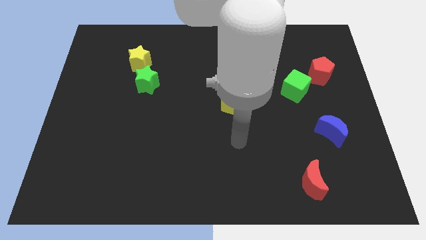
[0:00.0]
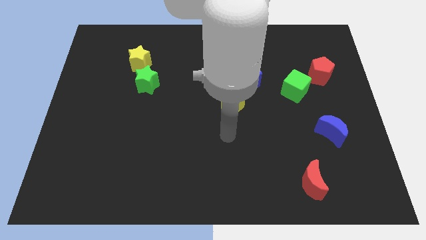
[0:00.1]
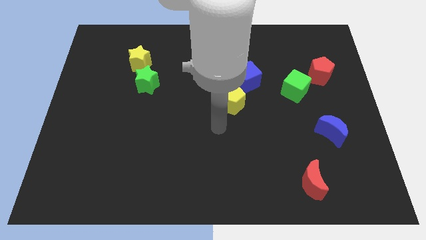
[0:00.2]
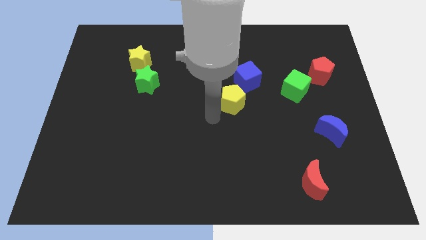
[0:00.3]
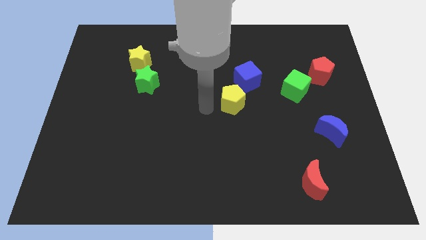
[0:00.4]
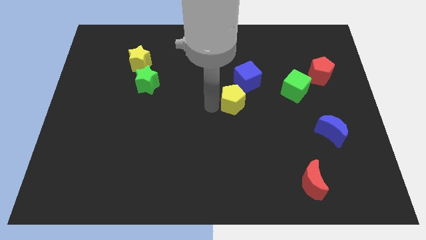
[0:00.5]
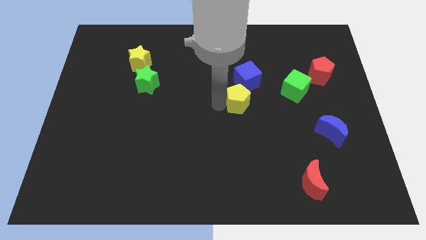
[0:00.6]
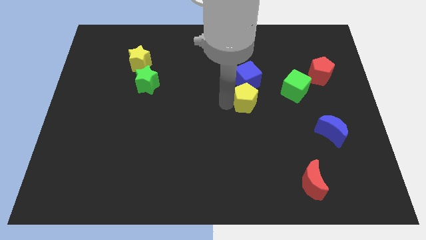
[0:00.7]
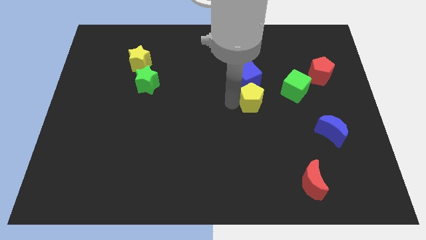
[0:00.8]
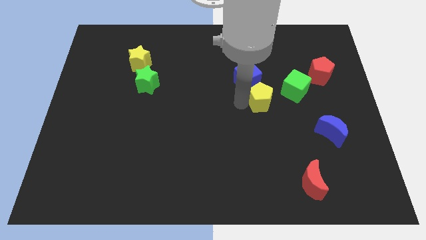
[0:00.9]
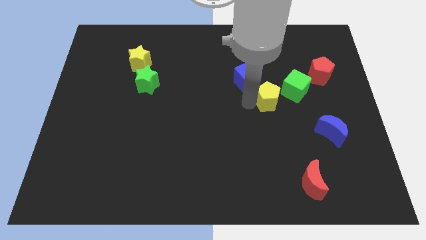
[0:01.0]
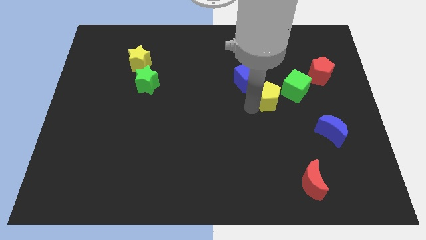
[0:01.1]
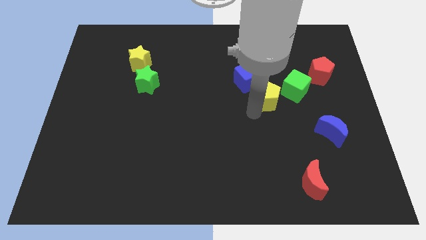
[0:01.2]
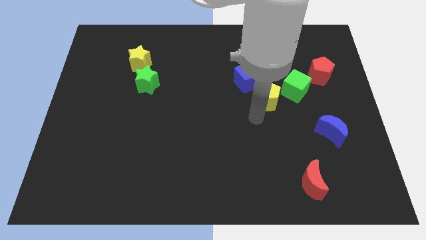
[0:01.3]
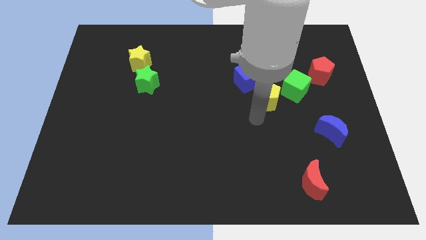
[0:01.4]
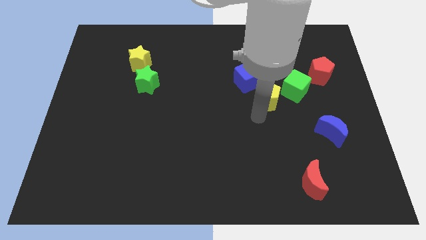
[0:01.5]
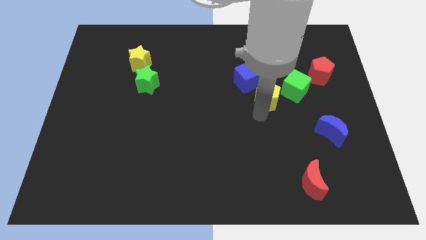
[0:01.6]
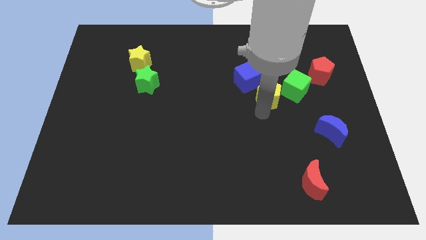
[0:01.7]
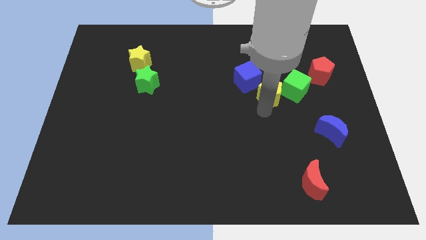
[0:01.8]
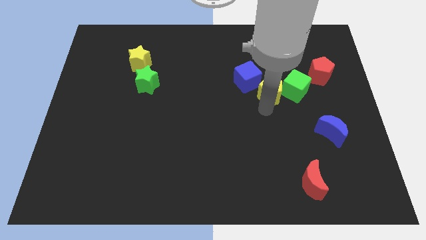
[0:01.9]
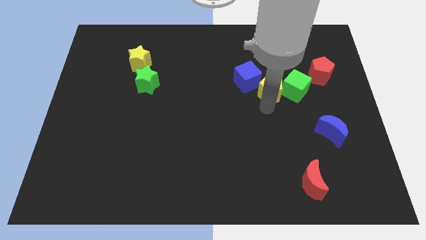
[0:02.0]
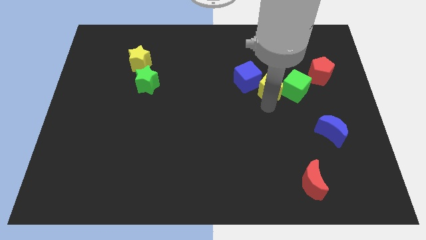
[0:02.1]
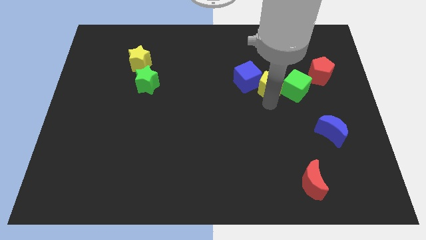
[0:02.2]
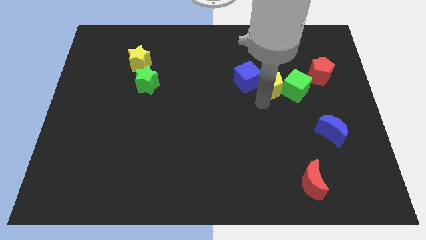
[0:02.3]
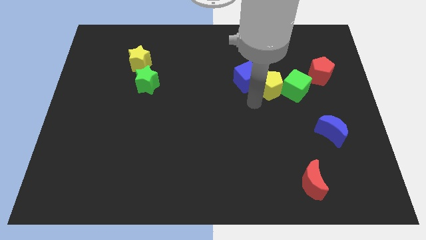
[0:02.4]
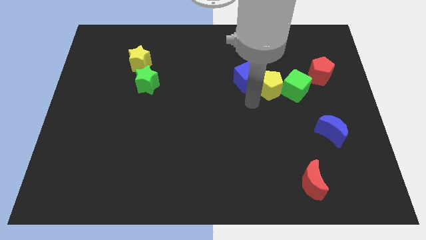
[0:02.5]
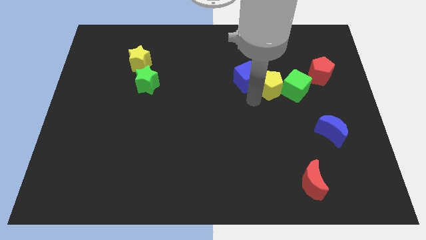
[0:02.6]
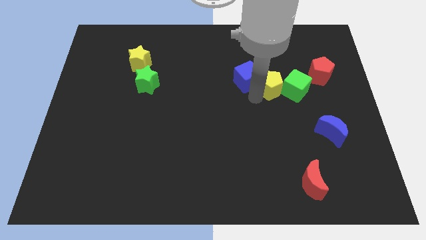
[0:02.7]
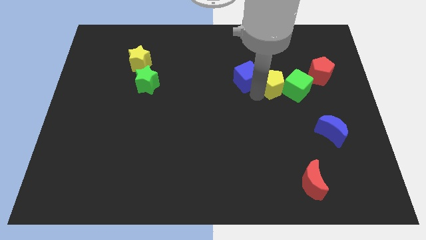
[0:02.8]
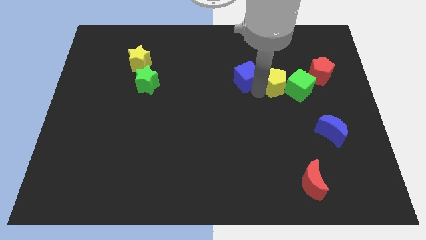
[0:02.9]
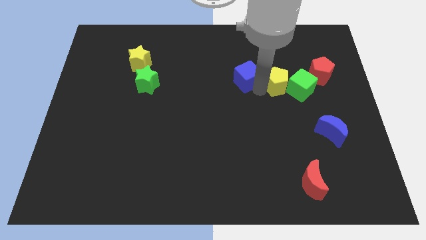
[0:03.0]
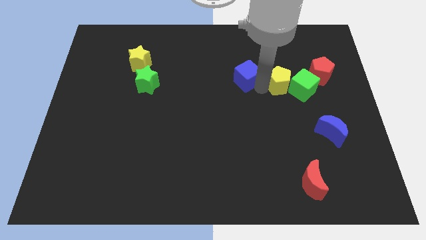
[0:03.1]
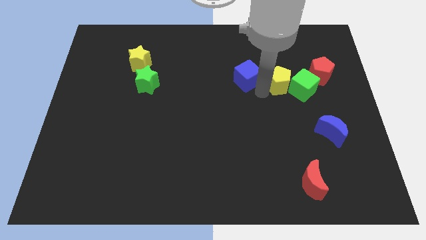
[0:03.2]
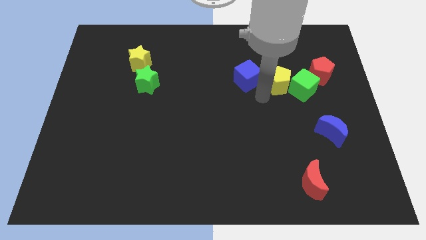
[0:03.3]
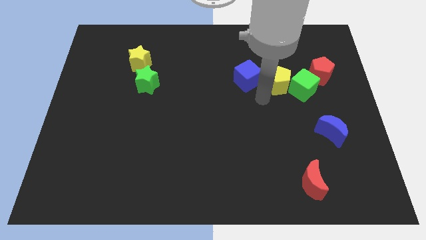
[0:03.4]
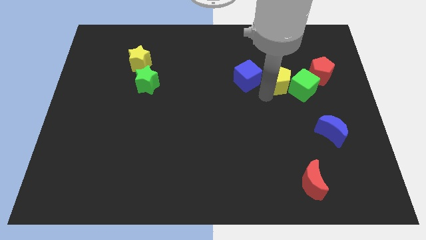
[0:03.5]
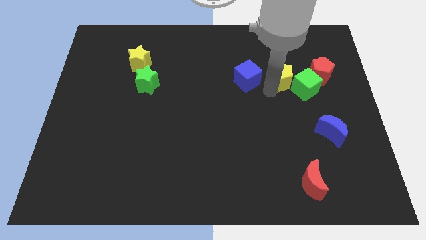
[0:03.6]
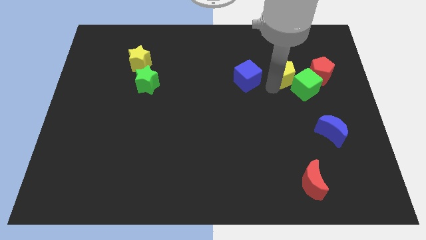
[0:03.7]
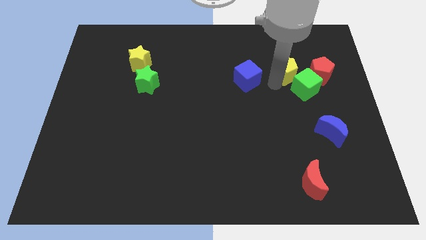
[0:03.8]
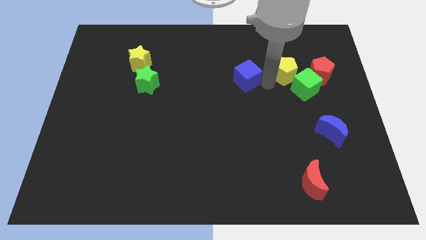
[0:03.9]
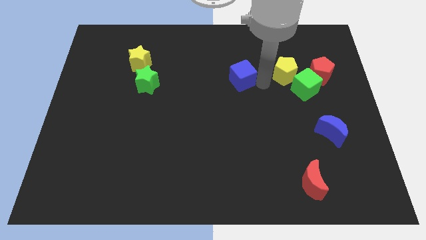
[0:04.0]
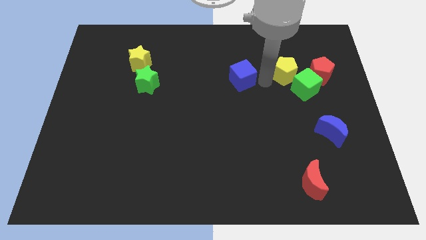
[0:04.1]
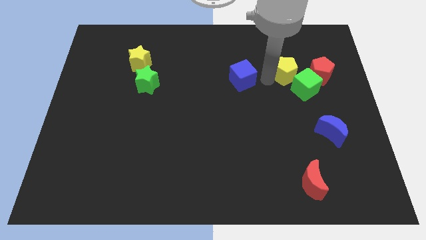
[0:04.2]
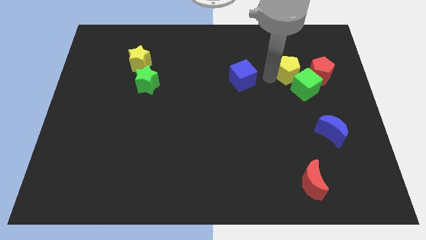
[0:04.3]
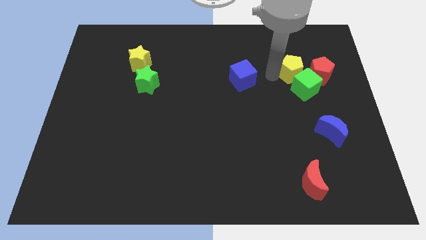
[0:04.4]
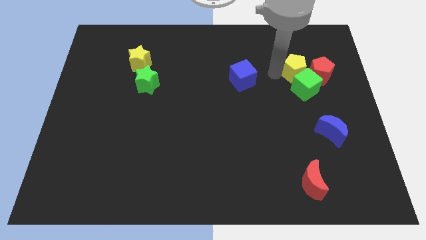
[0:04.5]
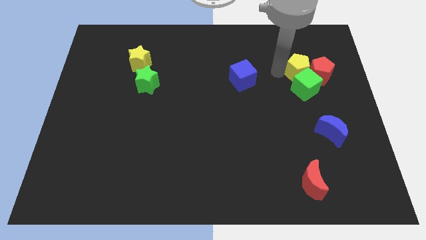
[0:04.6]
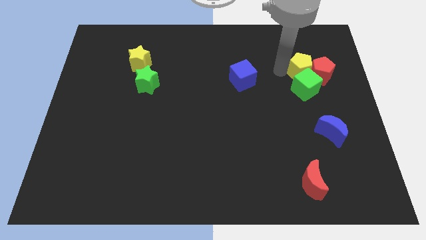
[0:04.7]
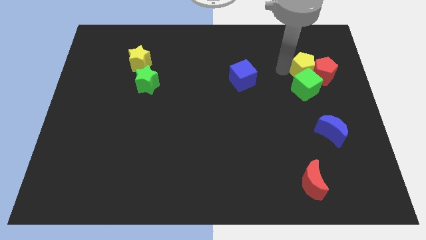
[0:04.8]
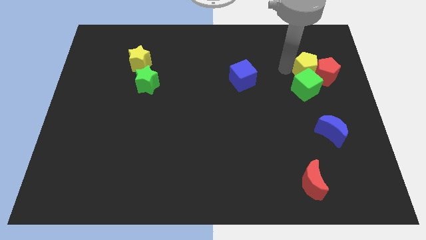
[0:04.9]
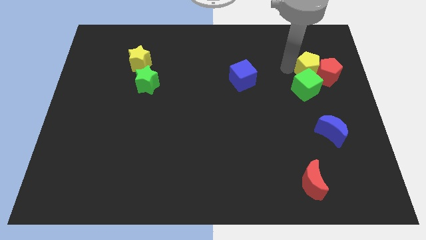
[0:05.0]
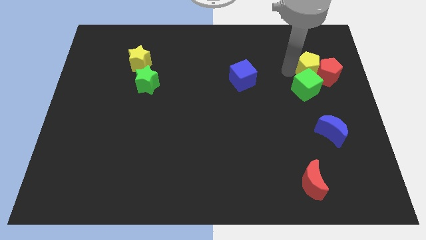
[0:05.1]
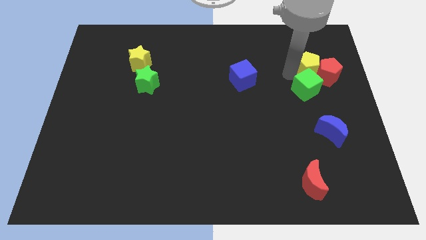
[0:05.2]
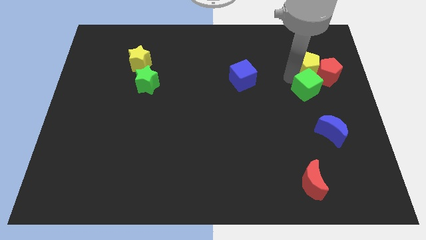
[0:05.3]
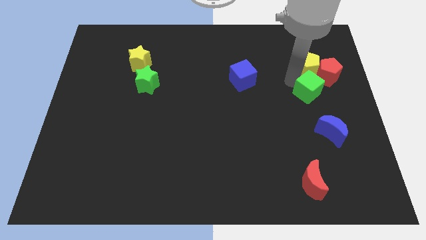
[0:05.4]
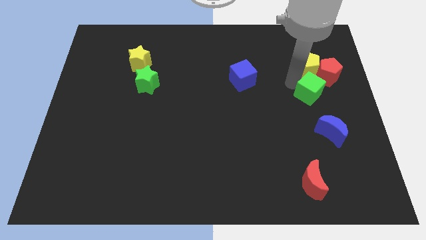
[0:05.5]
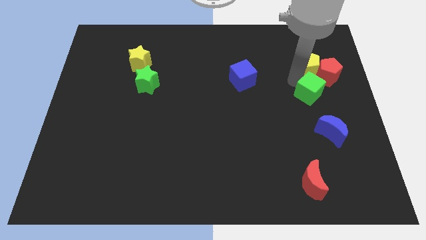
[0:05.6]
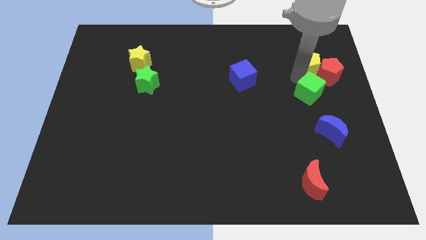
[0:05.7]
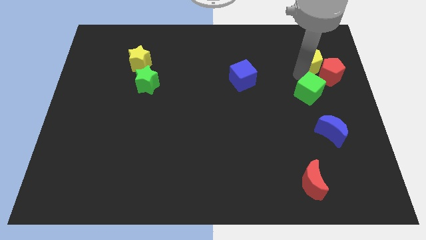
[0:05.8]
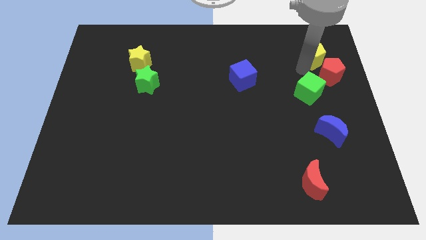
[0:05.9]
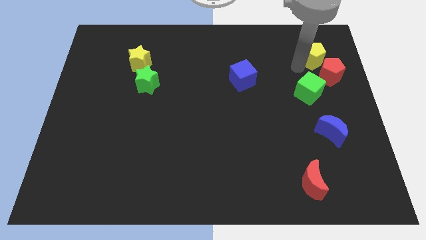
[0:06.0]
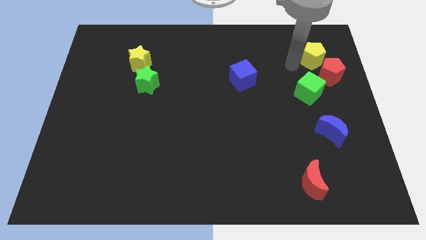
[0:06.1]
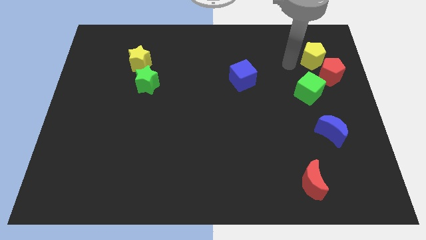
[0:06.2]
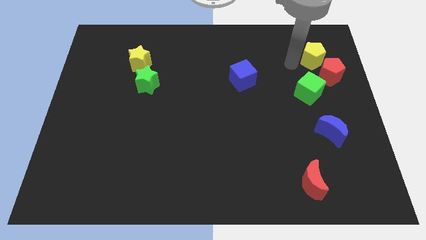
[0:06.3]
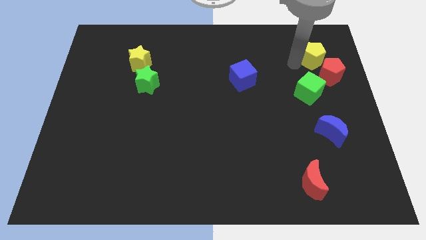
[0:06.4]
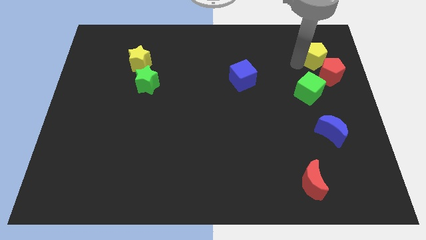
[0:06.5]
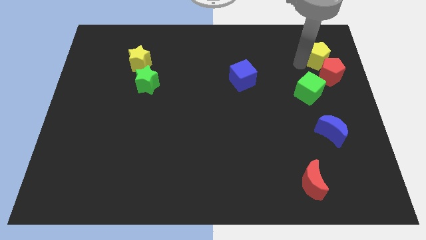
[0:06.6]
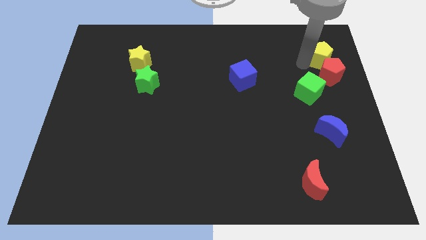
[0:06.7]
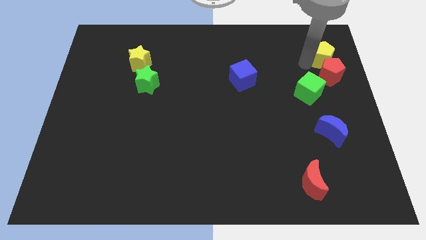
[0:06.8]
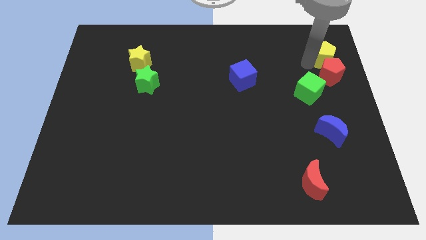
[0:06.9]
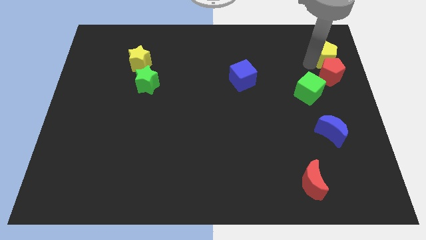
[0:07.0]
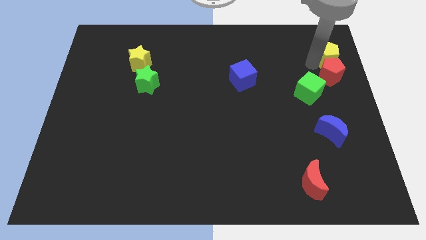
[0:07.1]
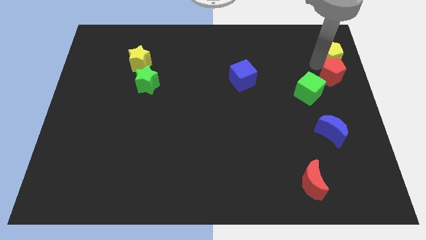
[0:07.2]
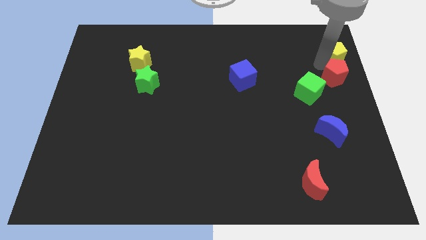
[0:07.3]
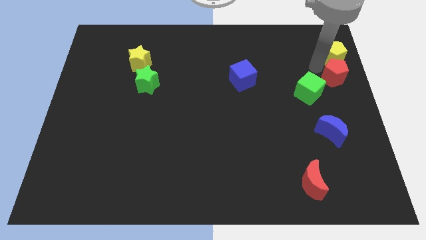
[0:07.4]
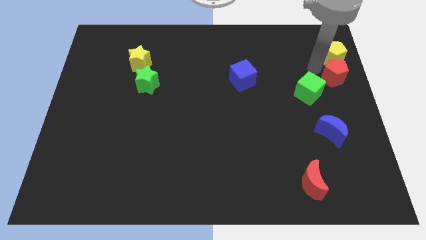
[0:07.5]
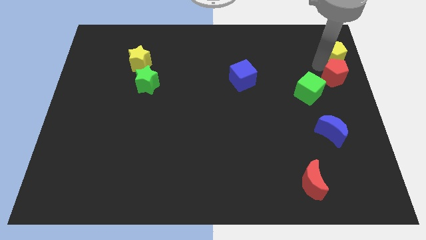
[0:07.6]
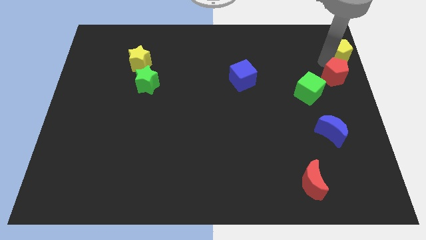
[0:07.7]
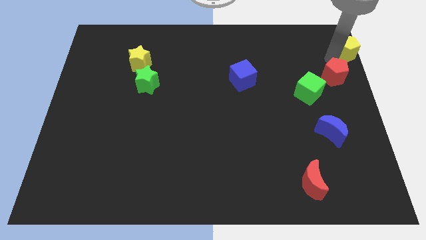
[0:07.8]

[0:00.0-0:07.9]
push the yellow pentagon to the upper right corner
